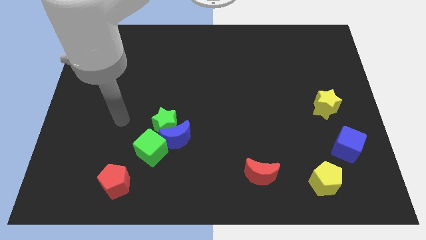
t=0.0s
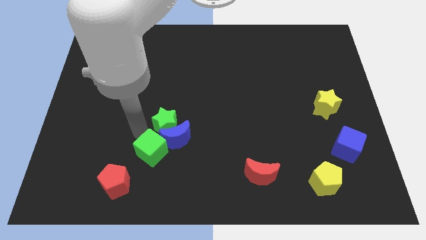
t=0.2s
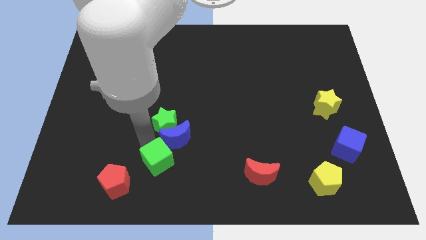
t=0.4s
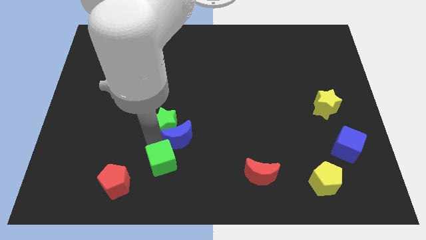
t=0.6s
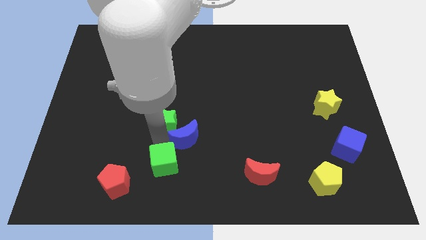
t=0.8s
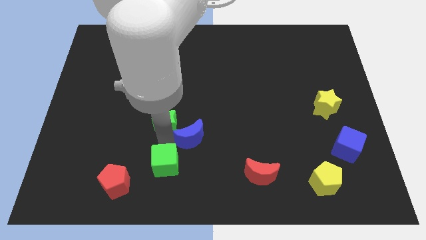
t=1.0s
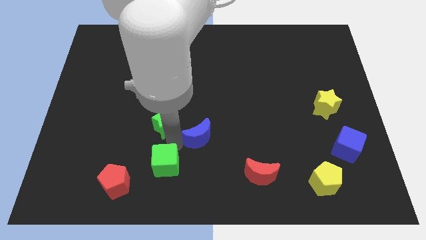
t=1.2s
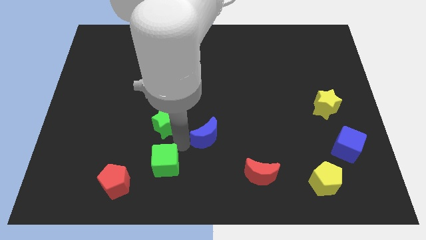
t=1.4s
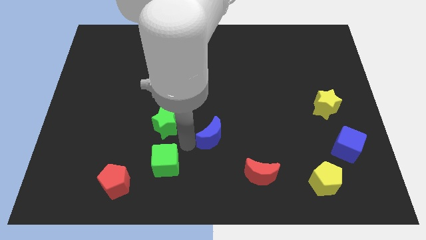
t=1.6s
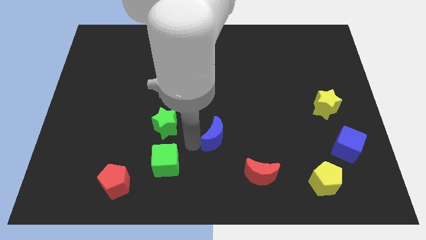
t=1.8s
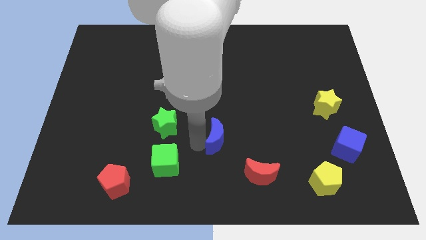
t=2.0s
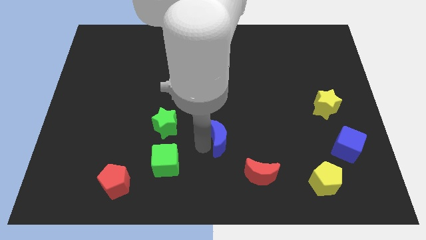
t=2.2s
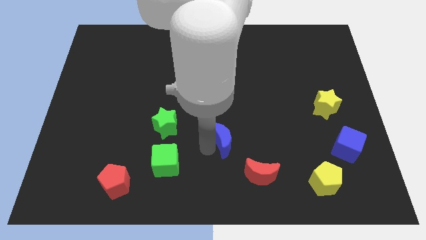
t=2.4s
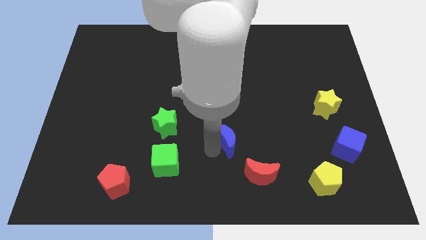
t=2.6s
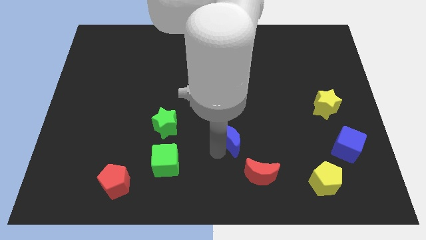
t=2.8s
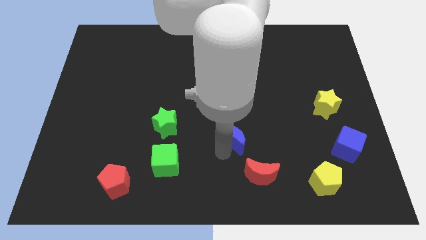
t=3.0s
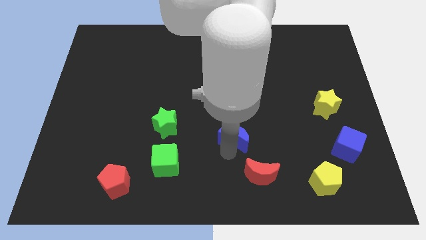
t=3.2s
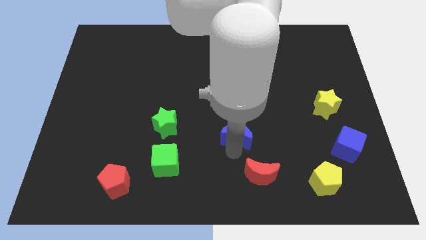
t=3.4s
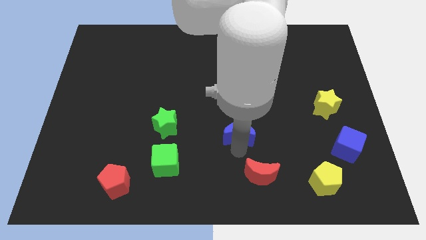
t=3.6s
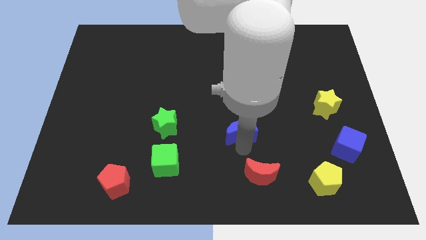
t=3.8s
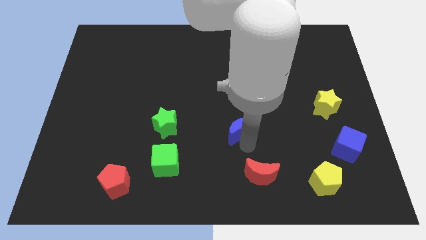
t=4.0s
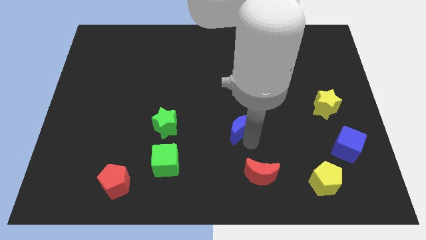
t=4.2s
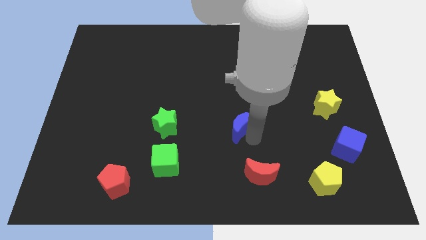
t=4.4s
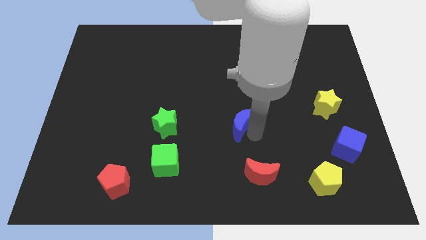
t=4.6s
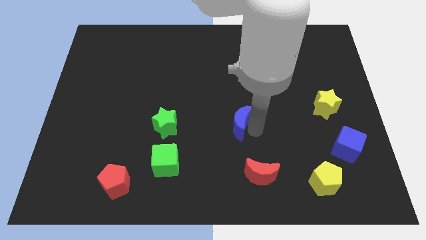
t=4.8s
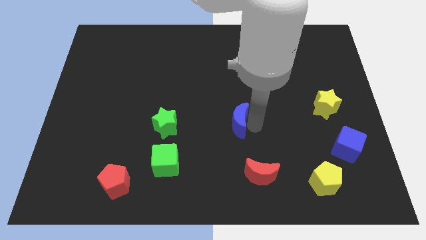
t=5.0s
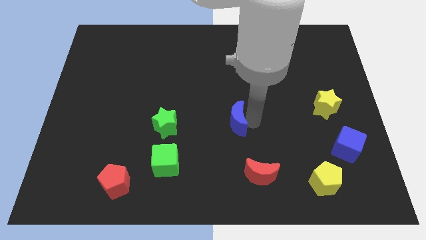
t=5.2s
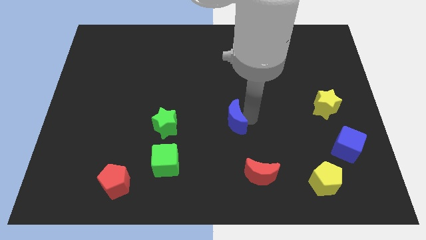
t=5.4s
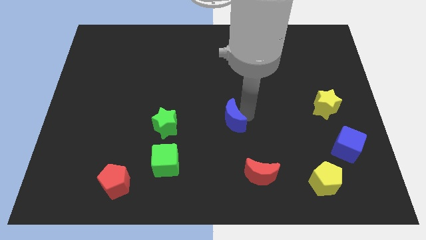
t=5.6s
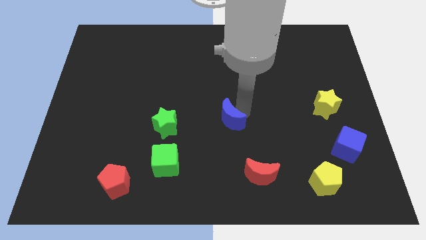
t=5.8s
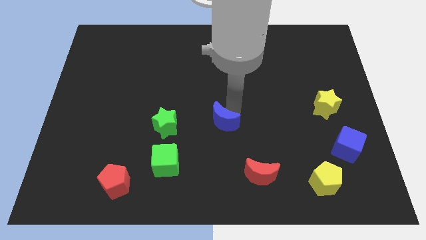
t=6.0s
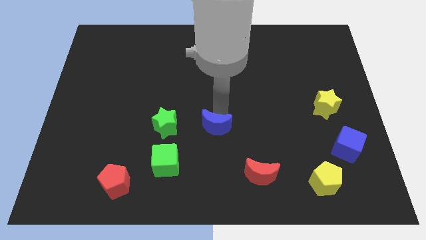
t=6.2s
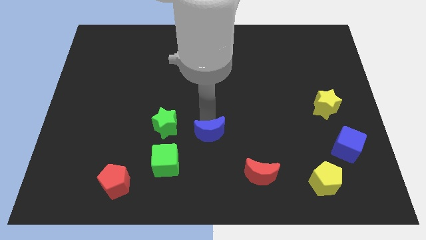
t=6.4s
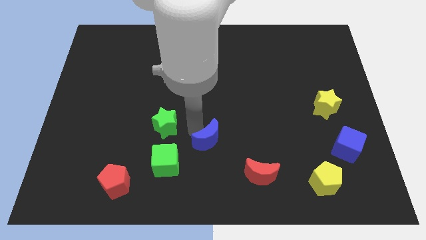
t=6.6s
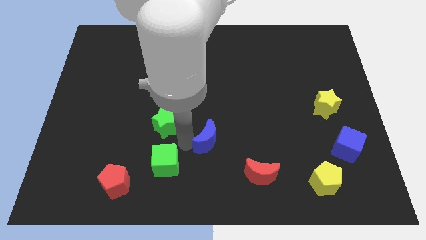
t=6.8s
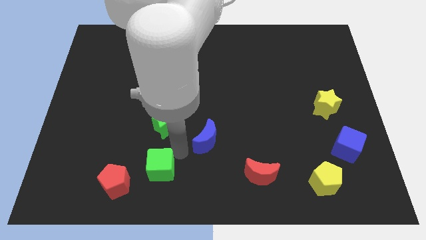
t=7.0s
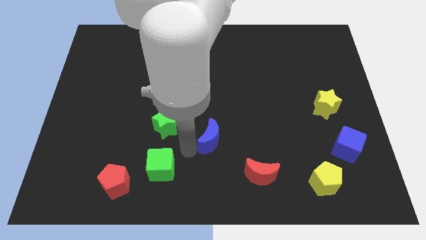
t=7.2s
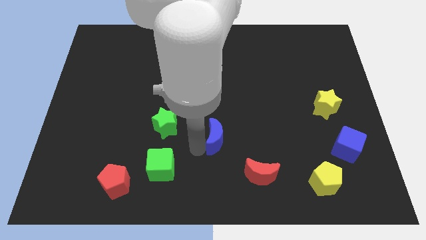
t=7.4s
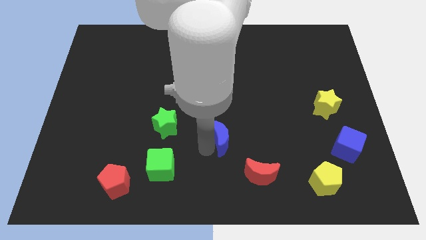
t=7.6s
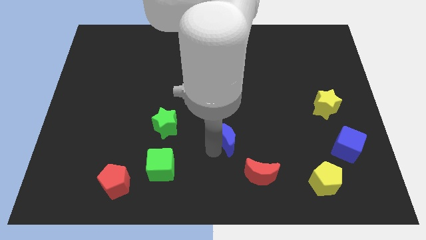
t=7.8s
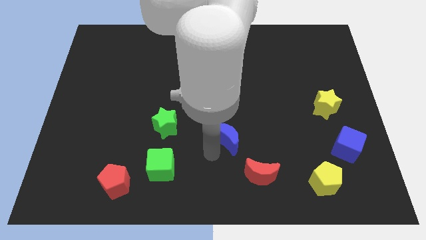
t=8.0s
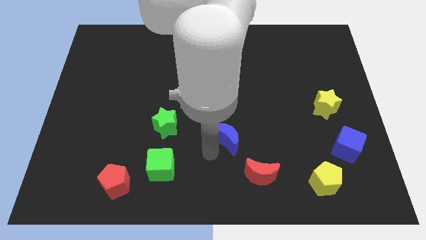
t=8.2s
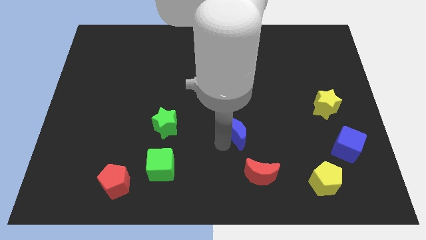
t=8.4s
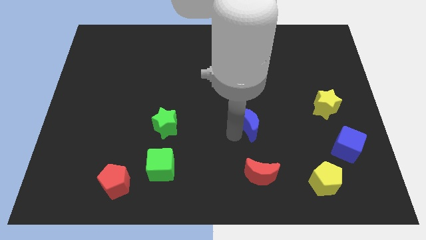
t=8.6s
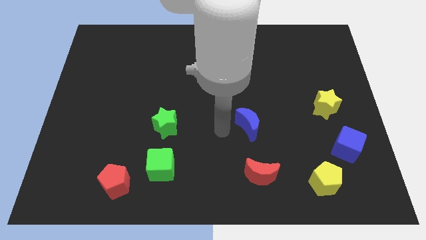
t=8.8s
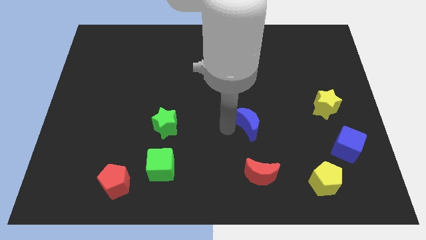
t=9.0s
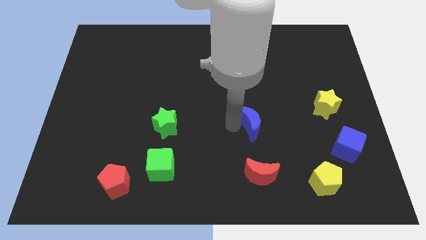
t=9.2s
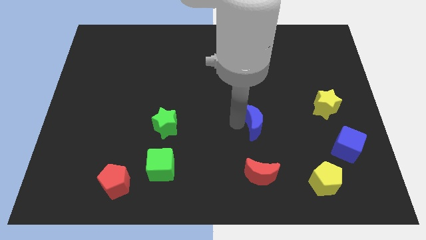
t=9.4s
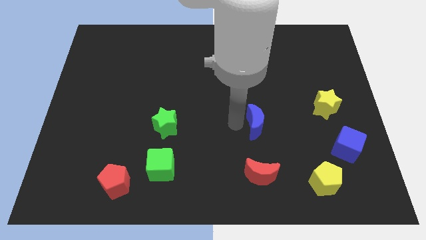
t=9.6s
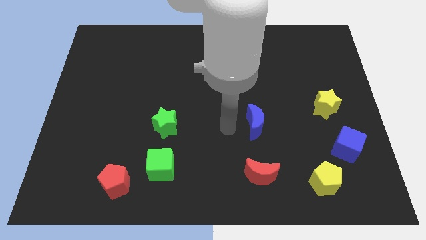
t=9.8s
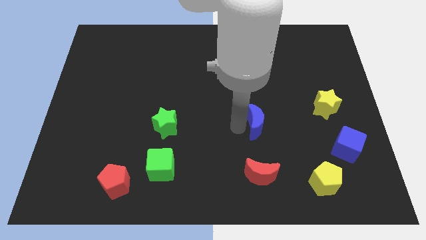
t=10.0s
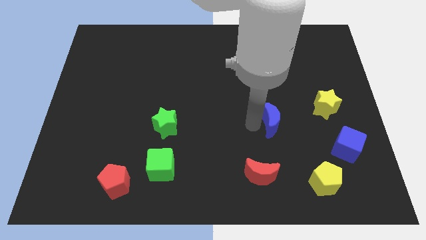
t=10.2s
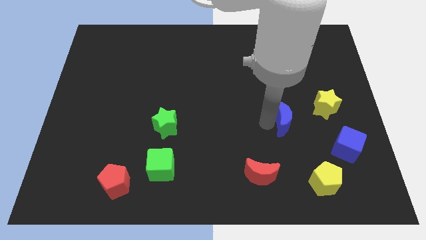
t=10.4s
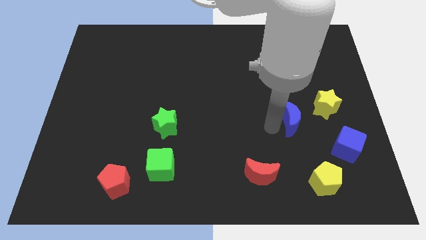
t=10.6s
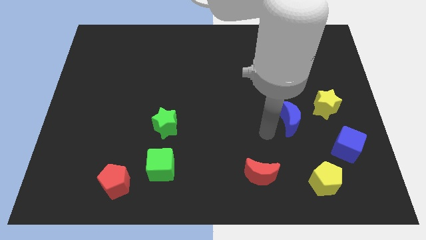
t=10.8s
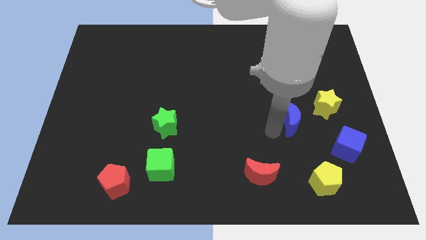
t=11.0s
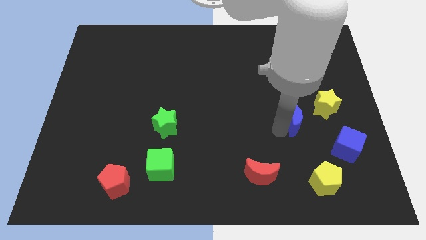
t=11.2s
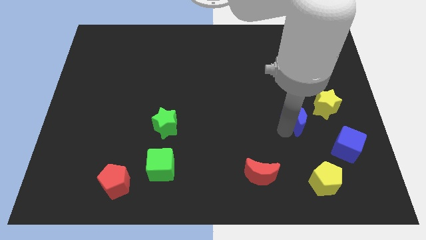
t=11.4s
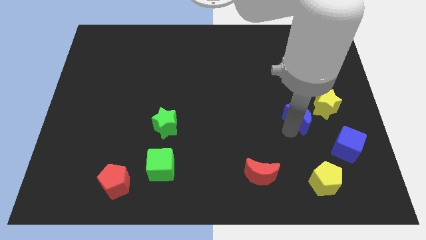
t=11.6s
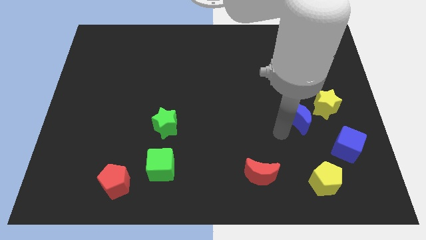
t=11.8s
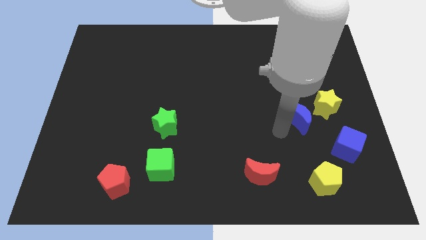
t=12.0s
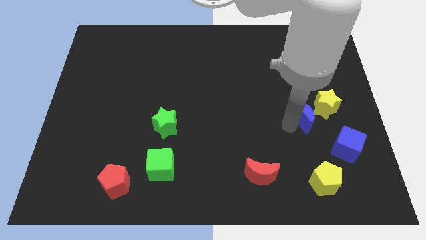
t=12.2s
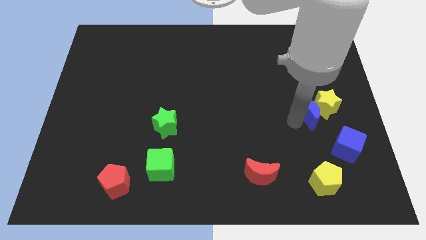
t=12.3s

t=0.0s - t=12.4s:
move the blue moon close to the yellow star

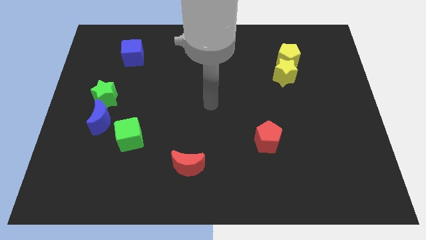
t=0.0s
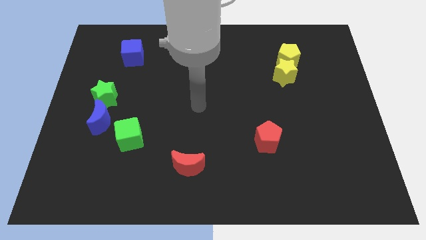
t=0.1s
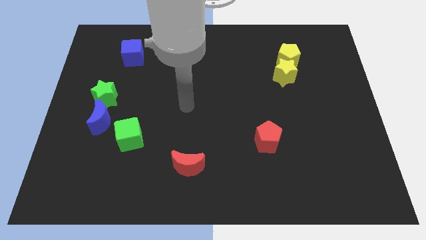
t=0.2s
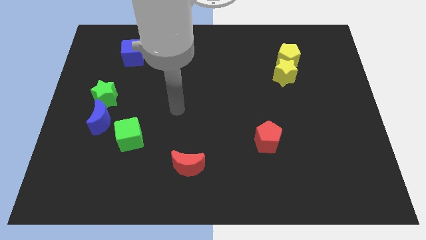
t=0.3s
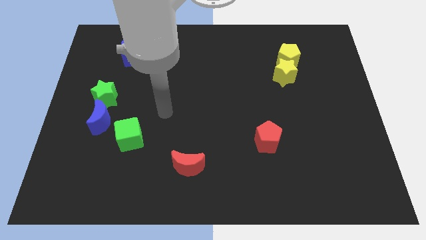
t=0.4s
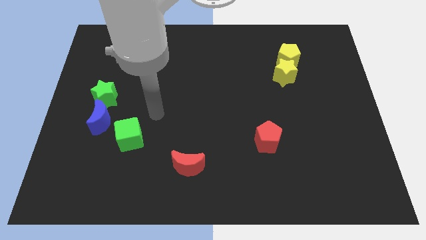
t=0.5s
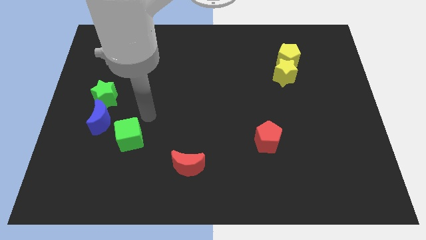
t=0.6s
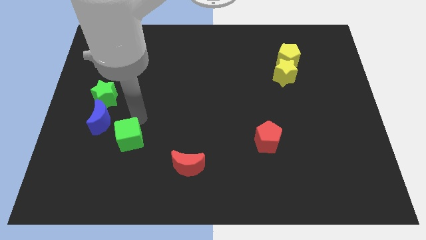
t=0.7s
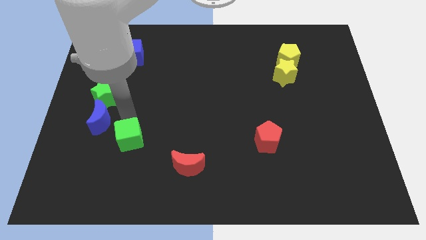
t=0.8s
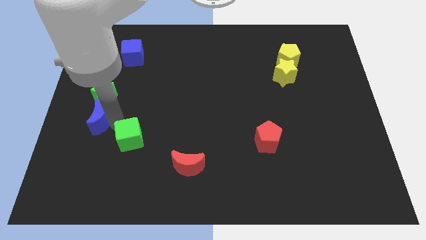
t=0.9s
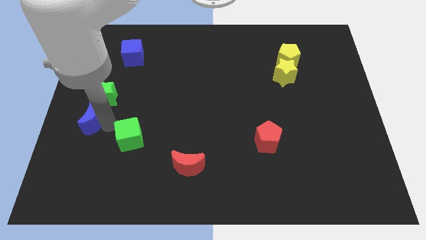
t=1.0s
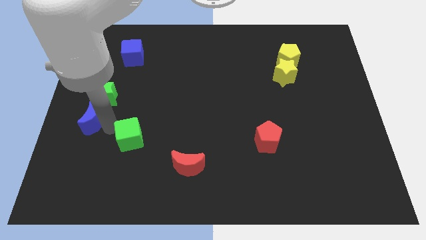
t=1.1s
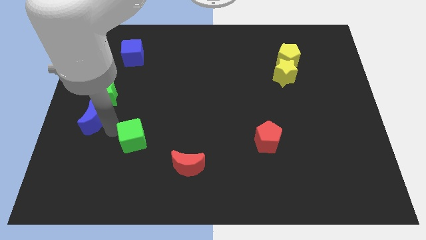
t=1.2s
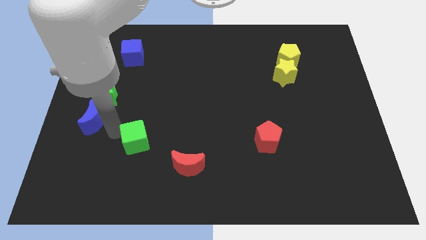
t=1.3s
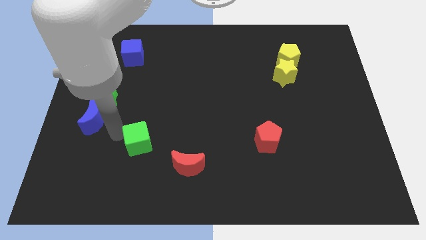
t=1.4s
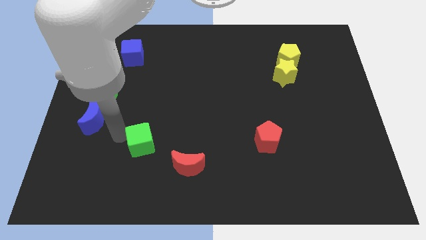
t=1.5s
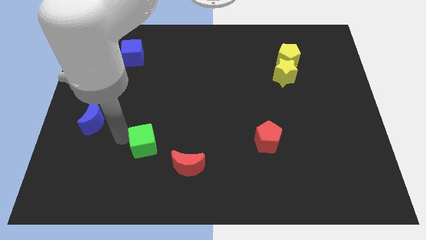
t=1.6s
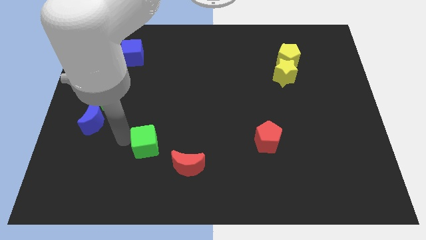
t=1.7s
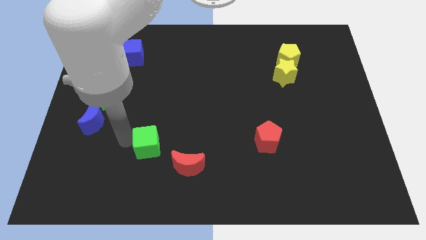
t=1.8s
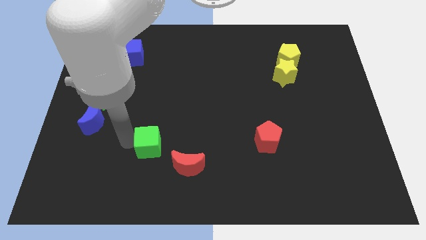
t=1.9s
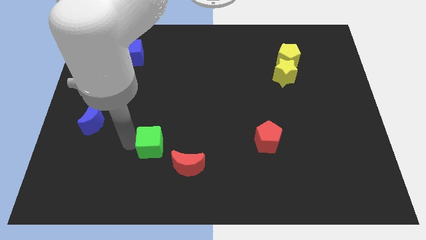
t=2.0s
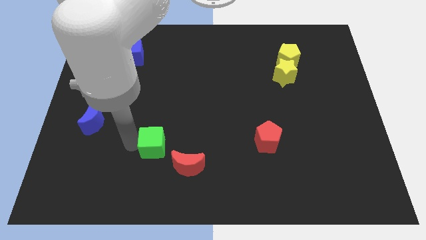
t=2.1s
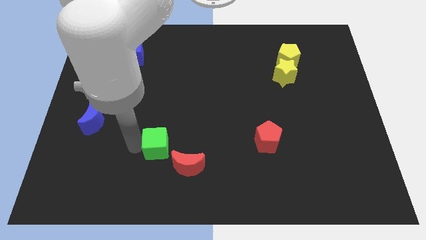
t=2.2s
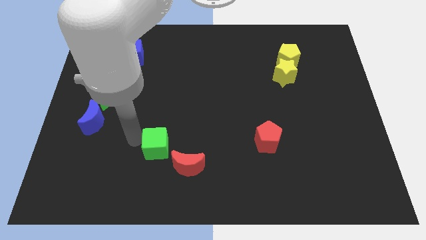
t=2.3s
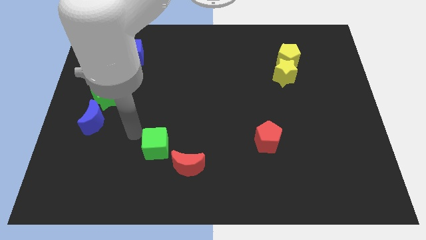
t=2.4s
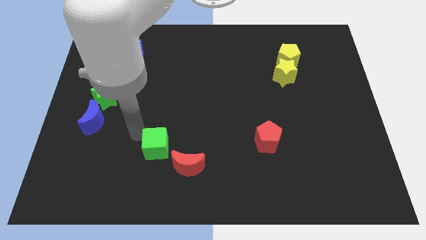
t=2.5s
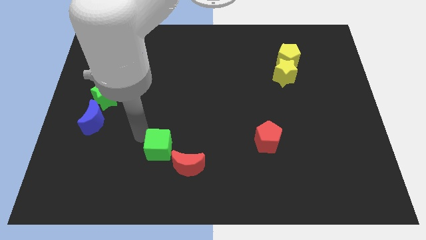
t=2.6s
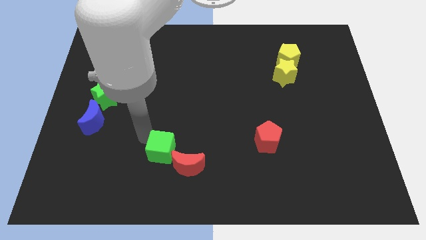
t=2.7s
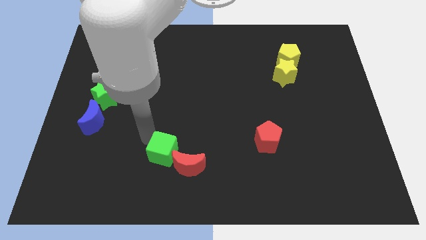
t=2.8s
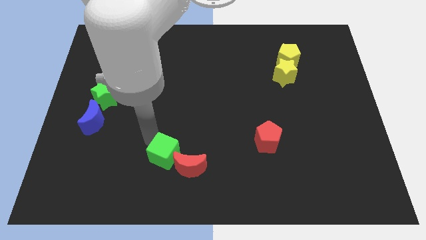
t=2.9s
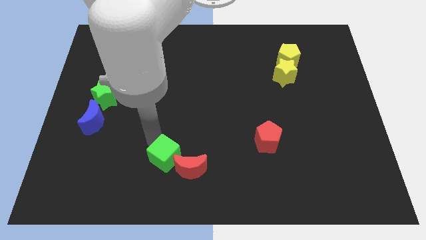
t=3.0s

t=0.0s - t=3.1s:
push the green cube close to the red moon
